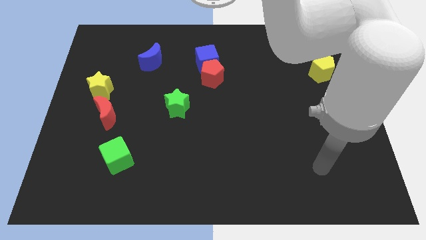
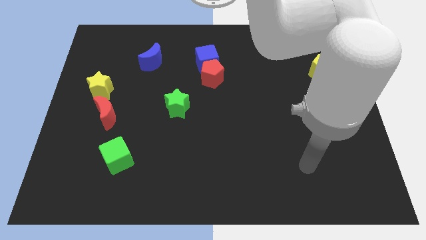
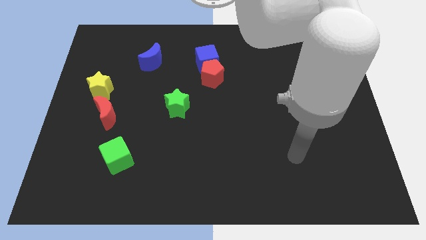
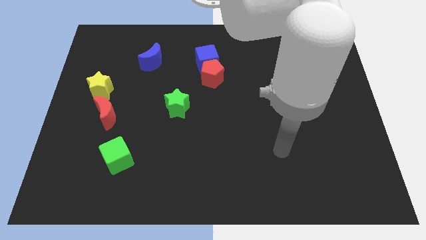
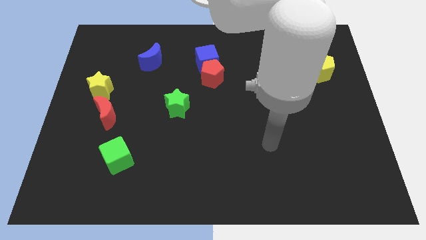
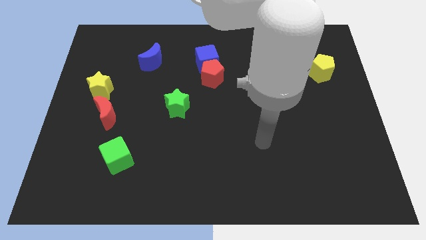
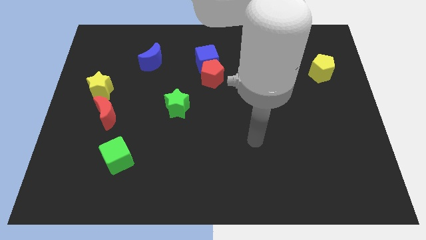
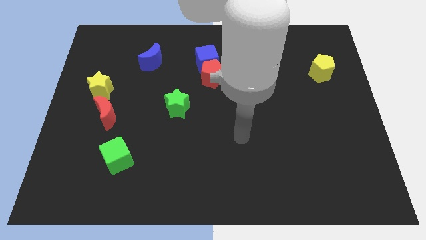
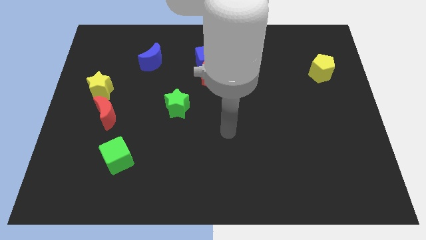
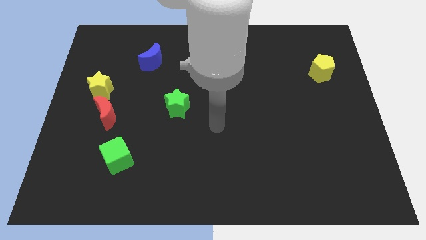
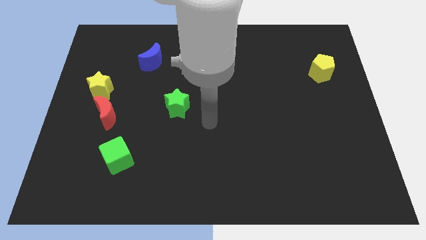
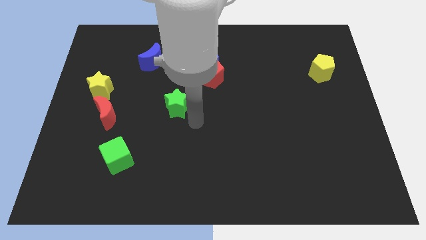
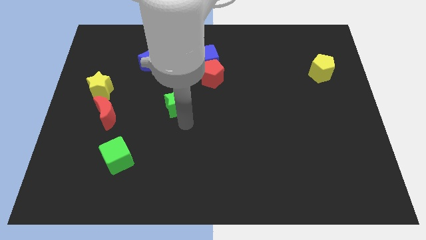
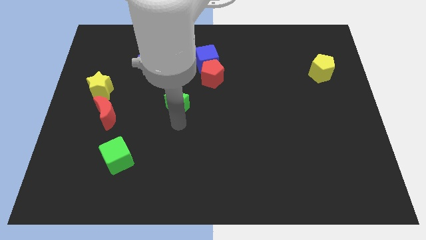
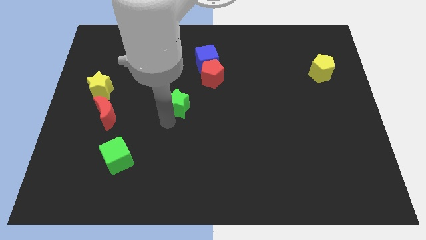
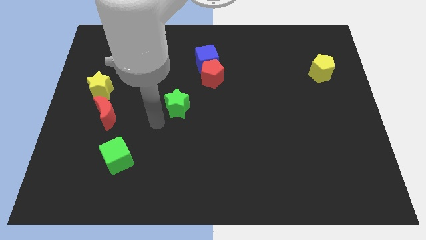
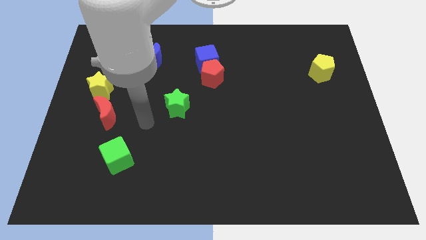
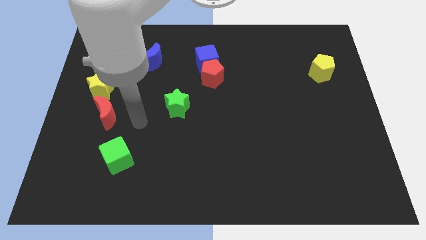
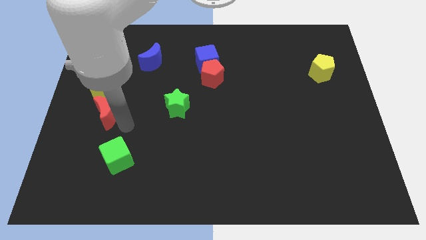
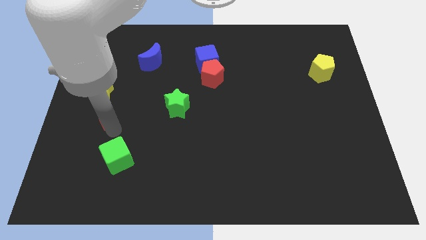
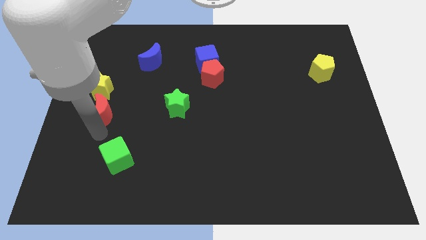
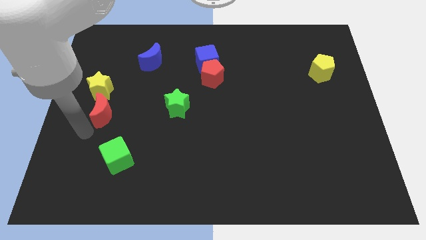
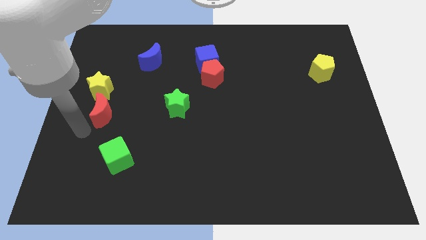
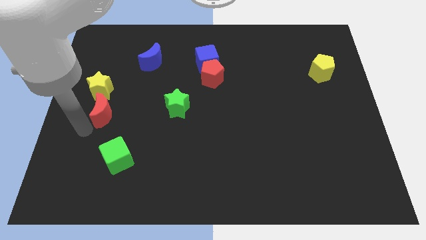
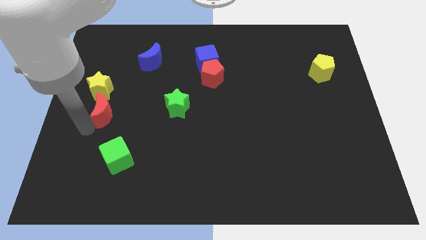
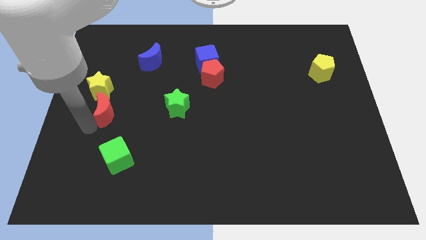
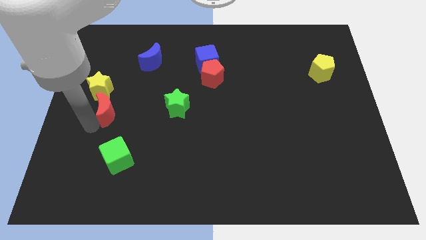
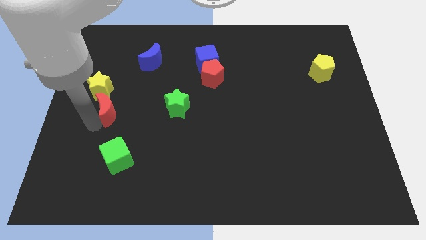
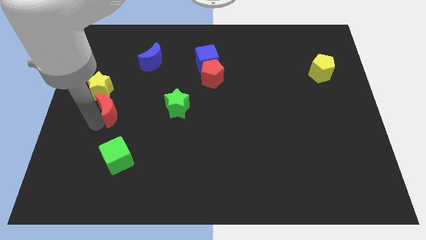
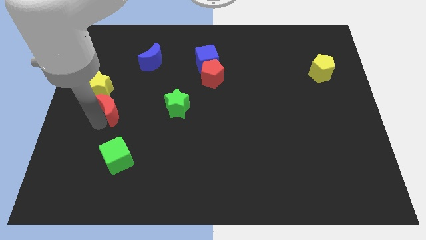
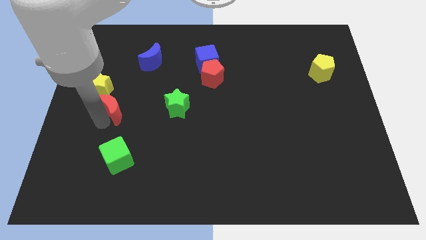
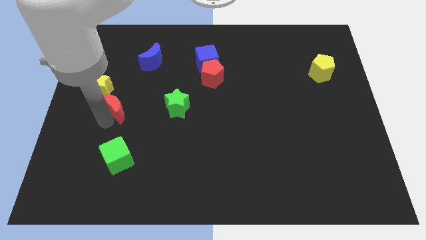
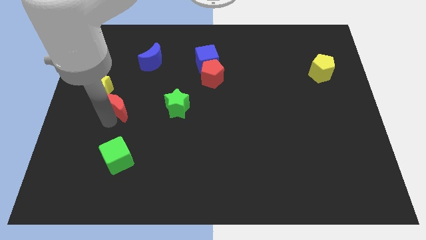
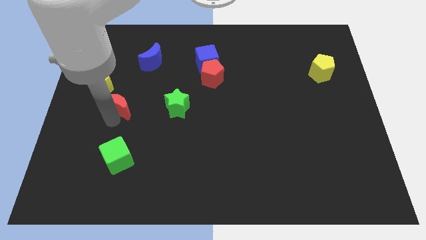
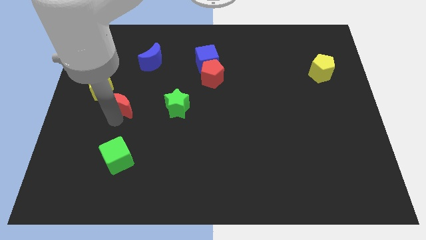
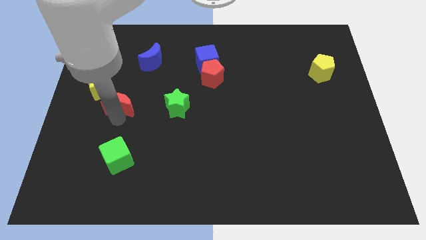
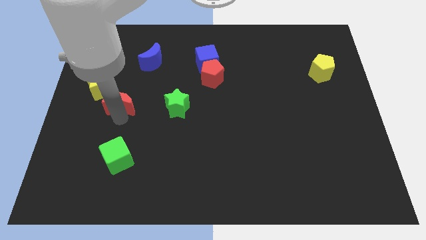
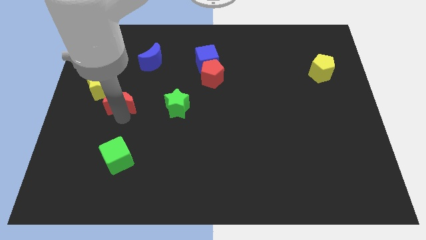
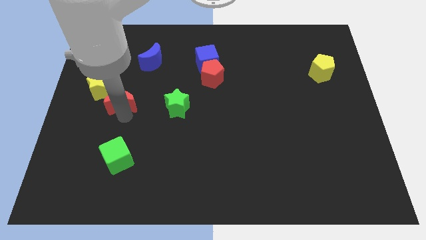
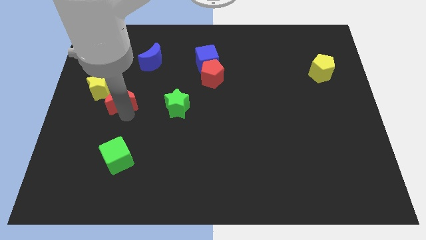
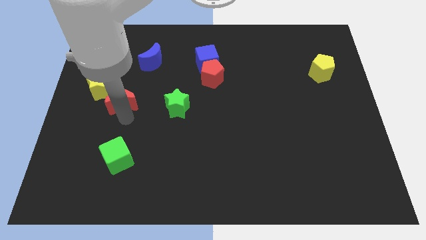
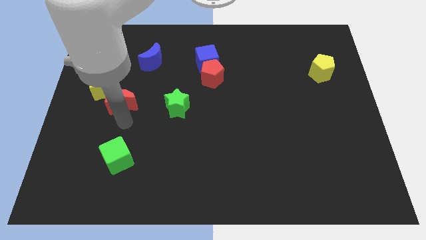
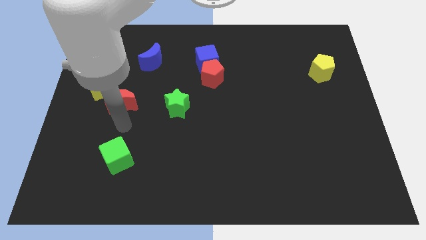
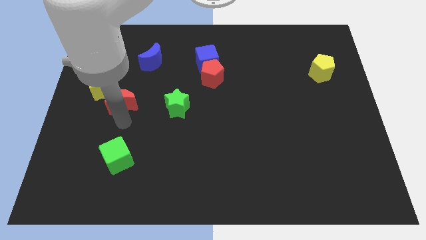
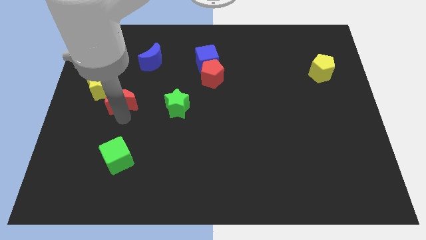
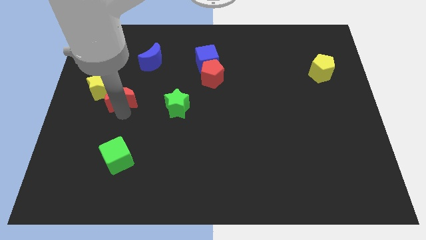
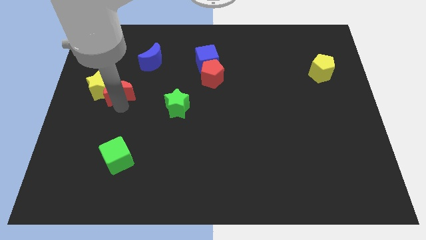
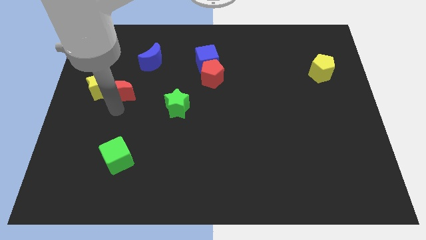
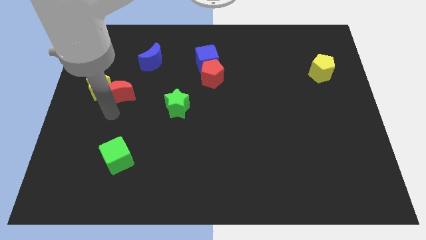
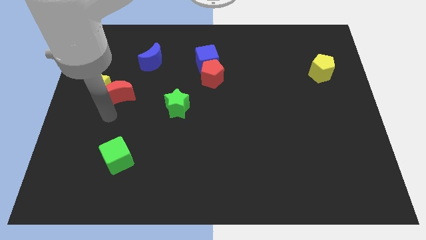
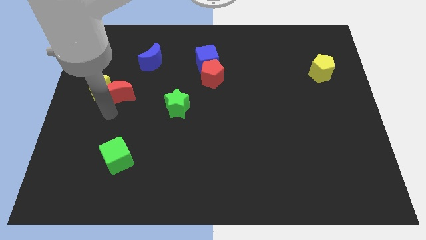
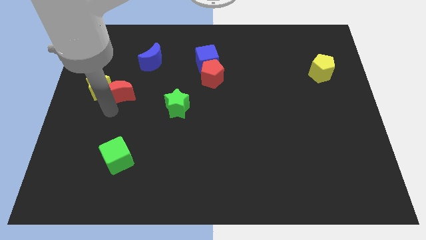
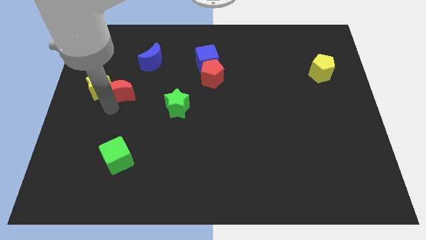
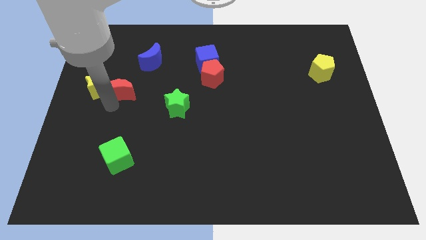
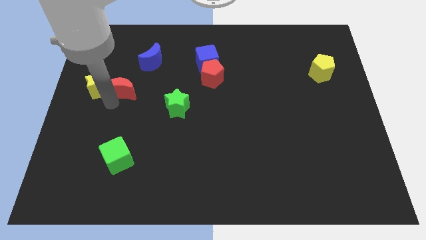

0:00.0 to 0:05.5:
put the red moon to the bottom left side of the blue moon

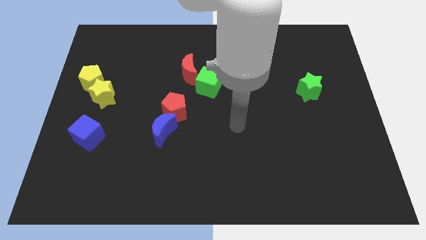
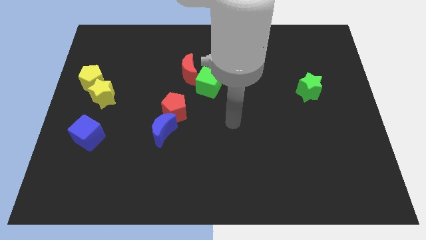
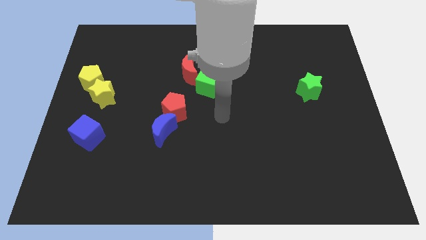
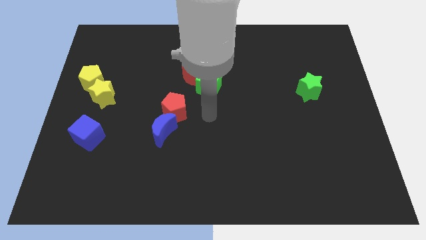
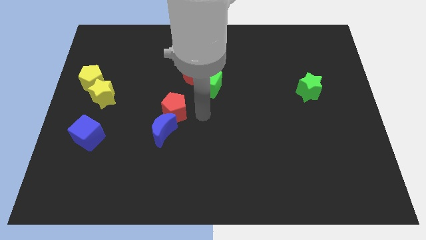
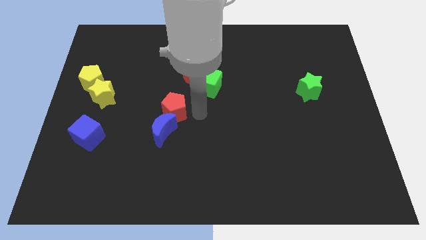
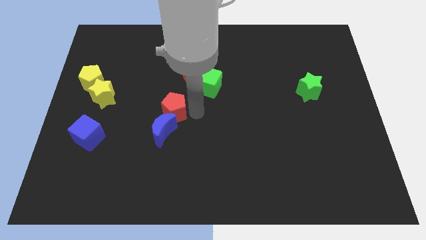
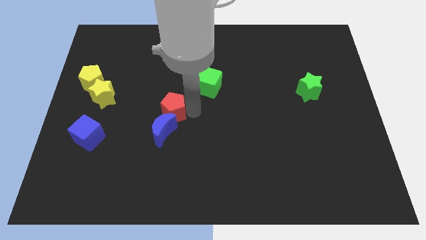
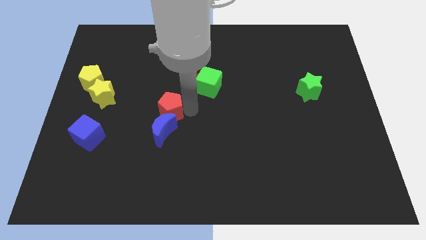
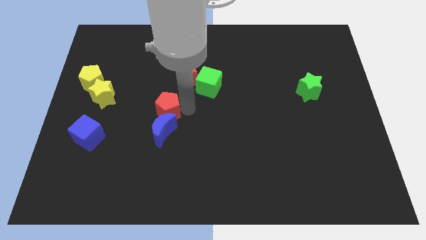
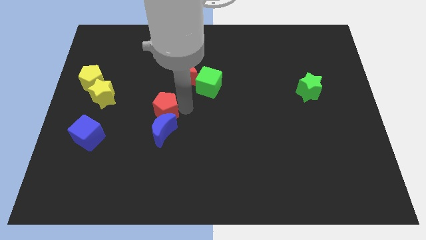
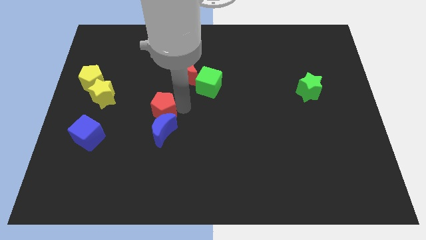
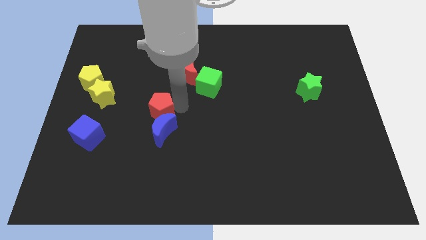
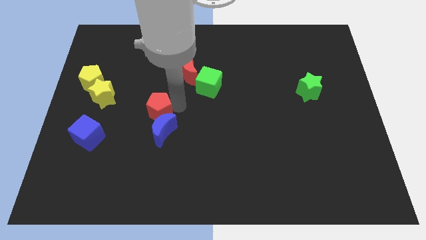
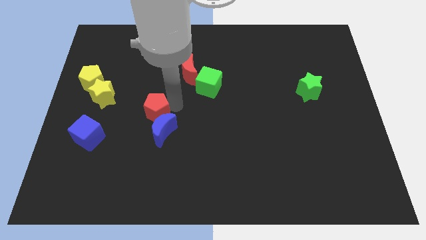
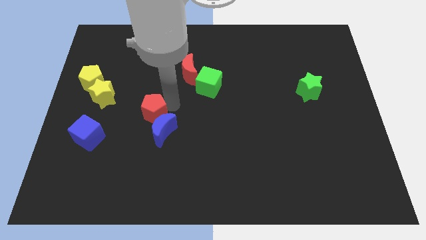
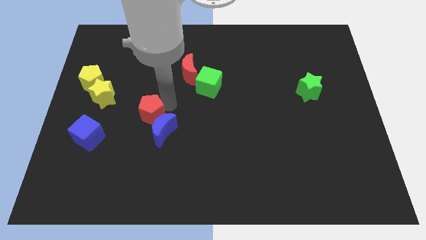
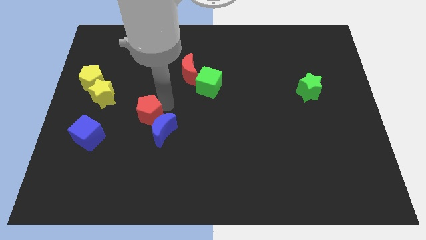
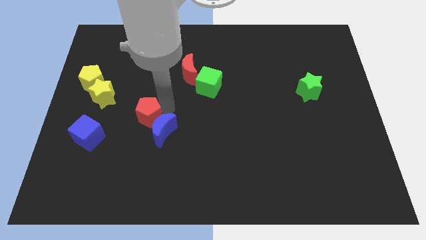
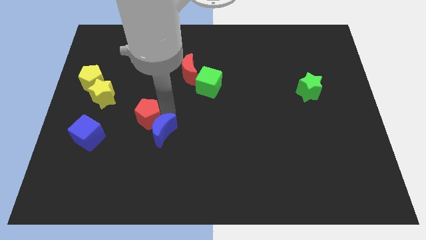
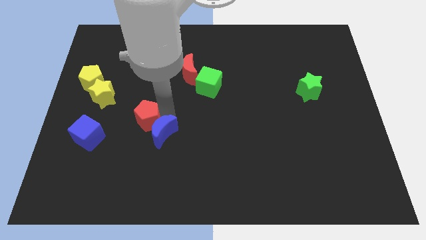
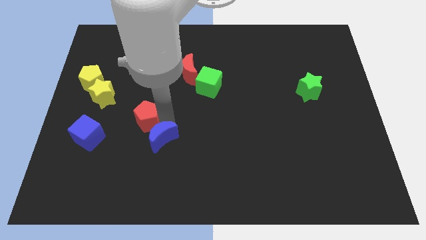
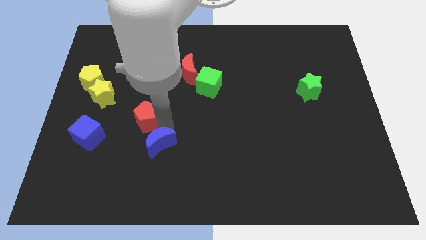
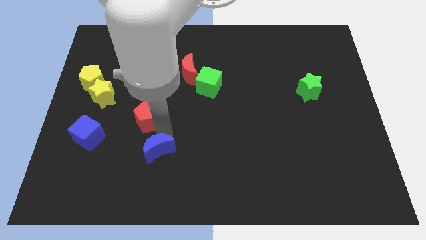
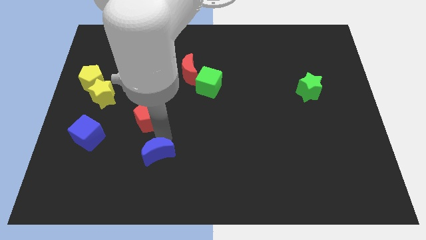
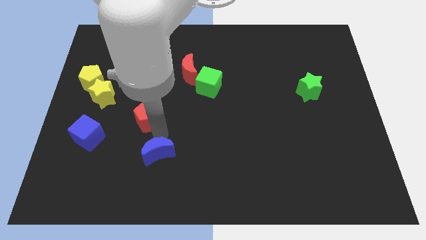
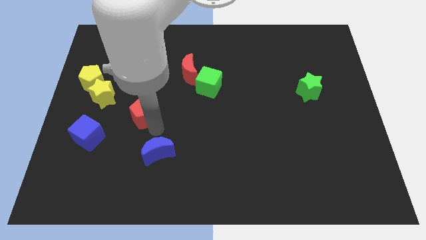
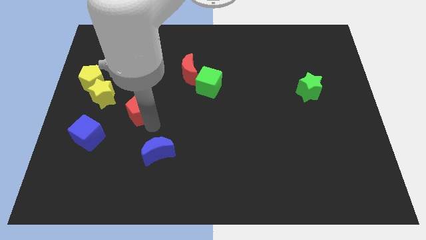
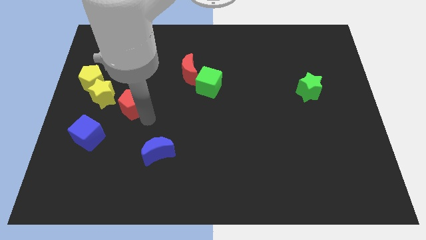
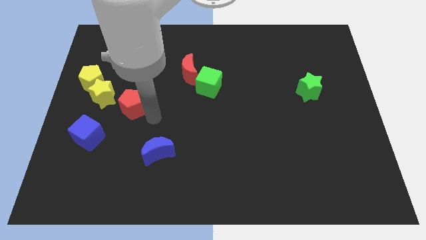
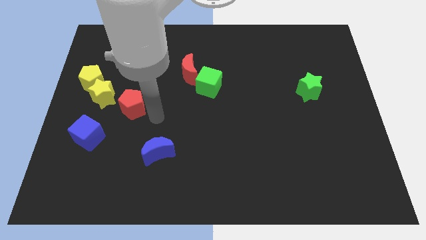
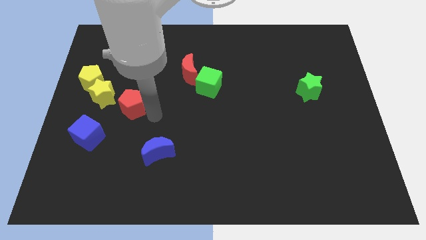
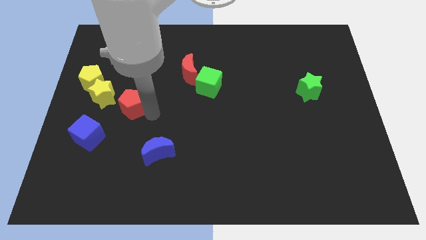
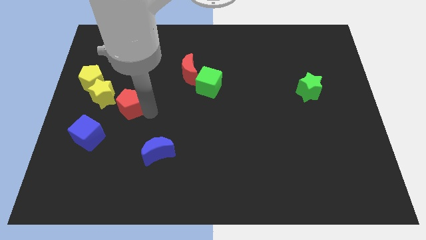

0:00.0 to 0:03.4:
move the red pentagon to the bottom right side of the yellow pentagon
